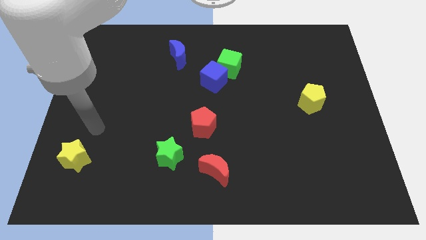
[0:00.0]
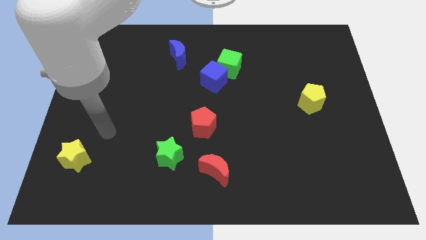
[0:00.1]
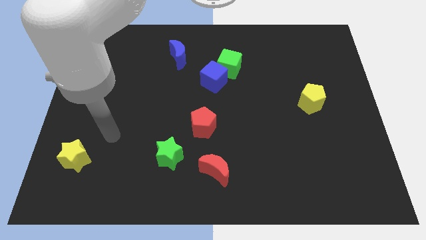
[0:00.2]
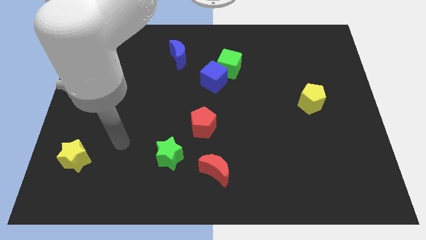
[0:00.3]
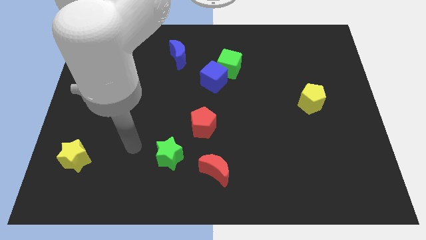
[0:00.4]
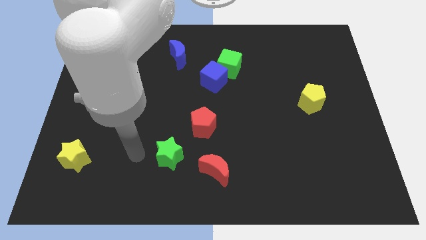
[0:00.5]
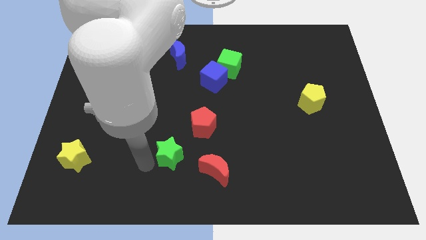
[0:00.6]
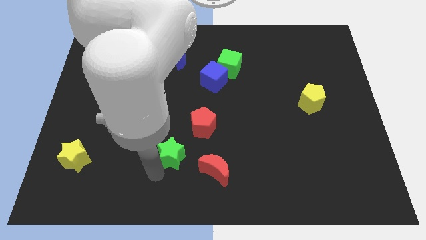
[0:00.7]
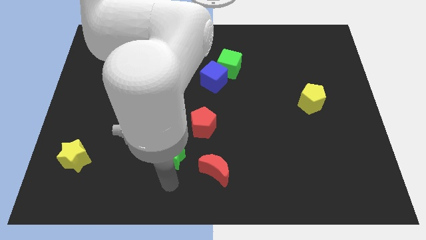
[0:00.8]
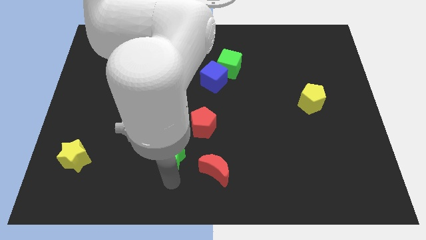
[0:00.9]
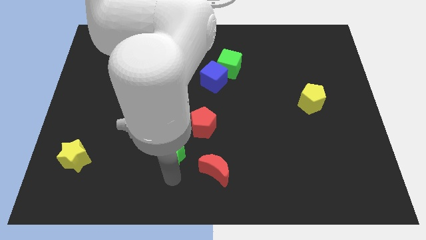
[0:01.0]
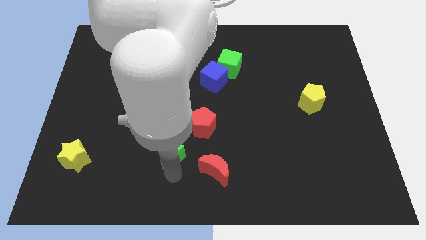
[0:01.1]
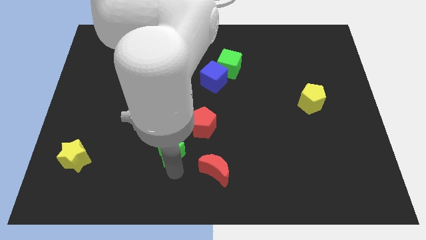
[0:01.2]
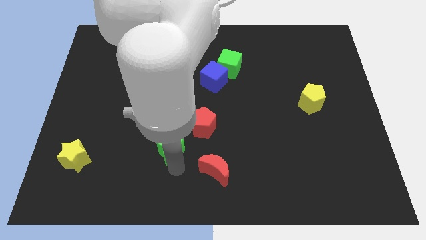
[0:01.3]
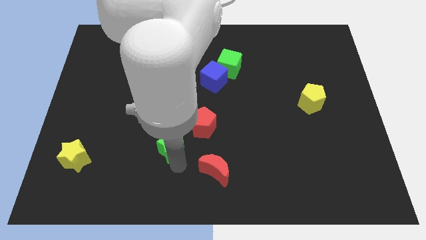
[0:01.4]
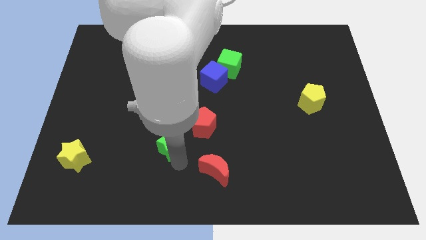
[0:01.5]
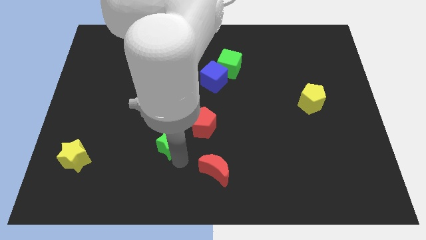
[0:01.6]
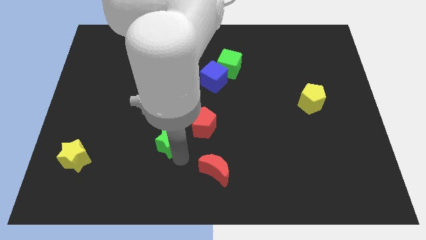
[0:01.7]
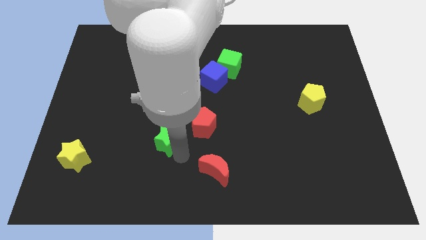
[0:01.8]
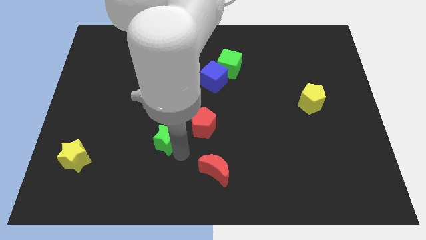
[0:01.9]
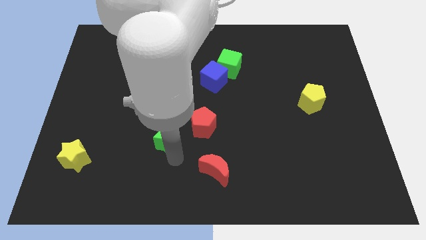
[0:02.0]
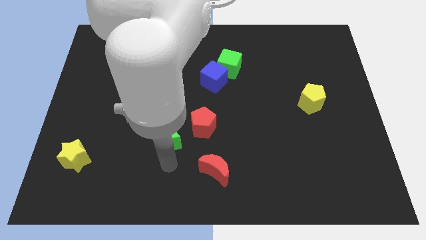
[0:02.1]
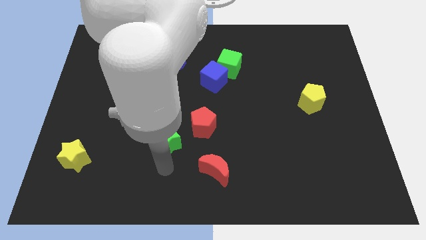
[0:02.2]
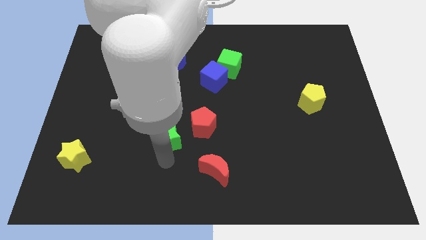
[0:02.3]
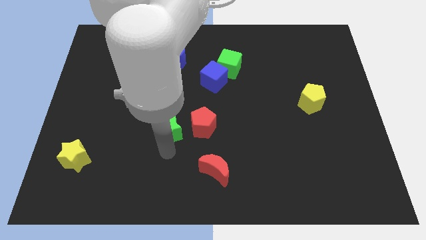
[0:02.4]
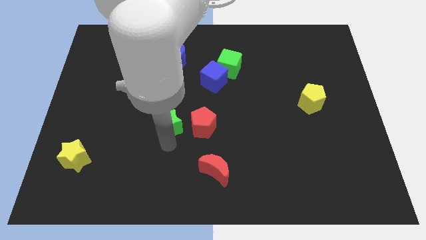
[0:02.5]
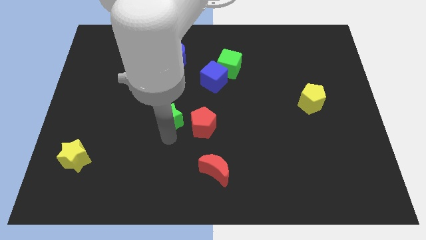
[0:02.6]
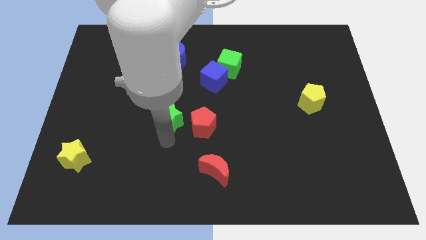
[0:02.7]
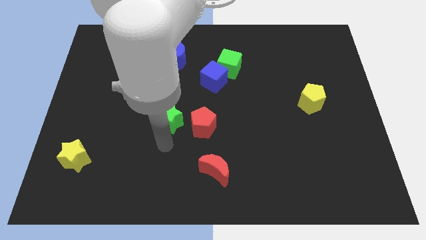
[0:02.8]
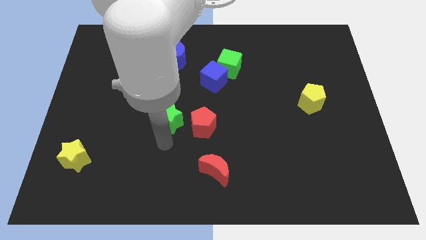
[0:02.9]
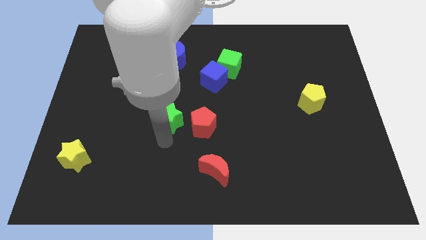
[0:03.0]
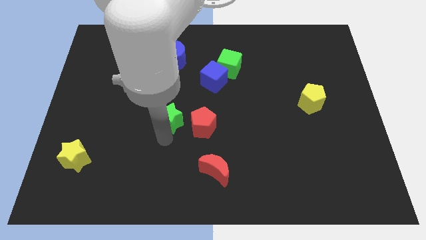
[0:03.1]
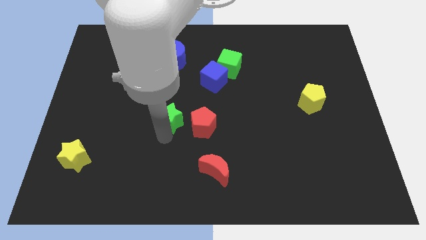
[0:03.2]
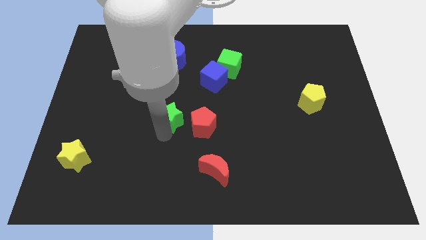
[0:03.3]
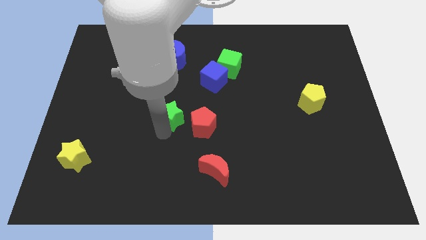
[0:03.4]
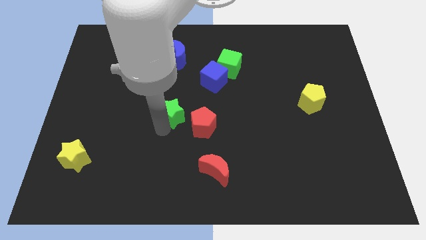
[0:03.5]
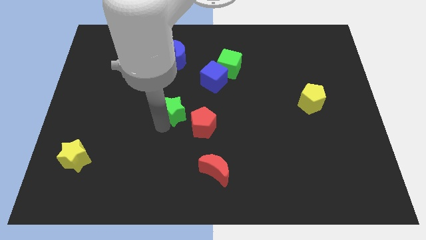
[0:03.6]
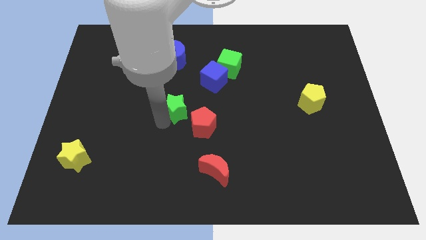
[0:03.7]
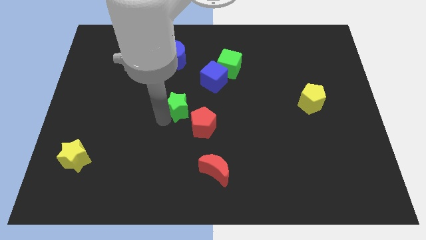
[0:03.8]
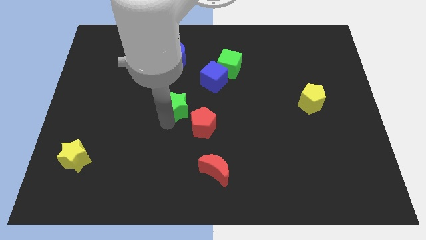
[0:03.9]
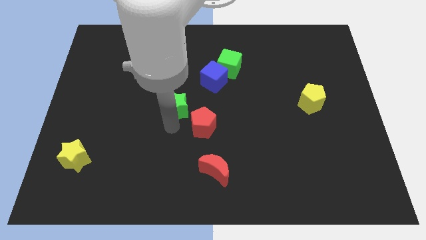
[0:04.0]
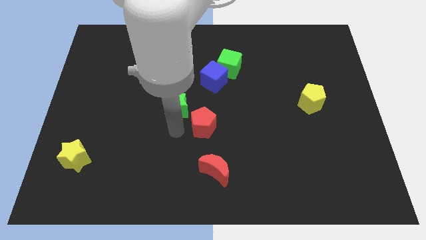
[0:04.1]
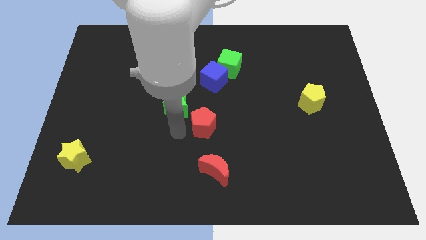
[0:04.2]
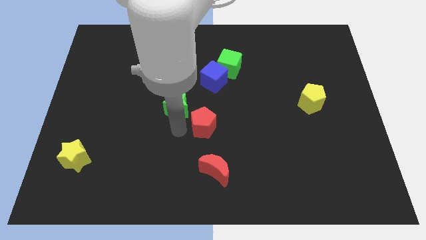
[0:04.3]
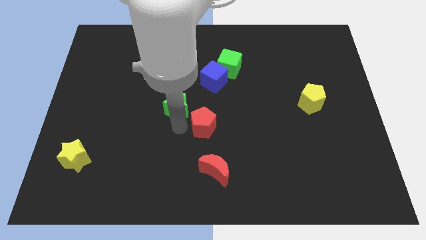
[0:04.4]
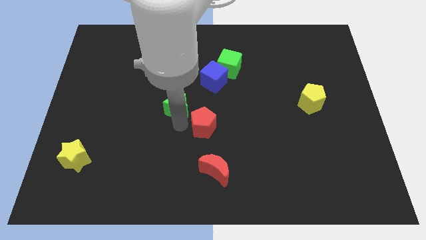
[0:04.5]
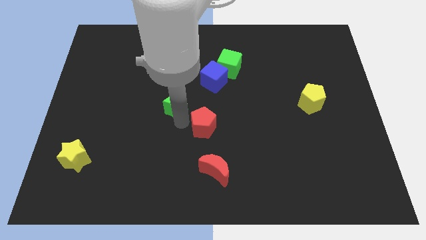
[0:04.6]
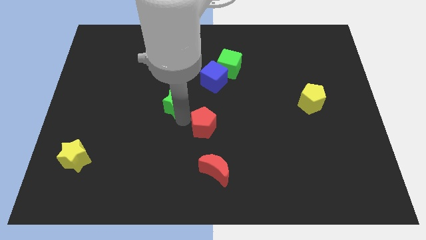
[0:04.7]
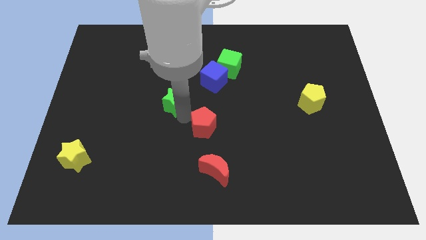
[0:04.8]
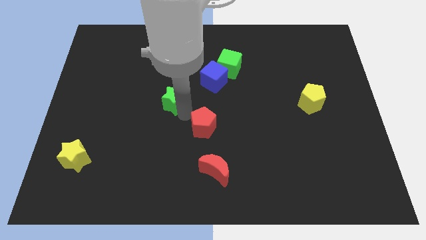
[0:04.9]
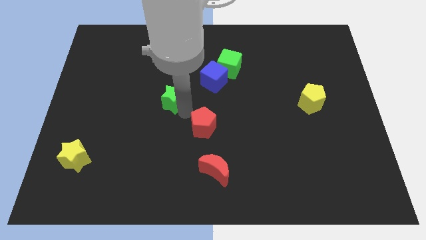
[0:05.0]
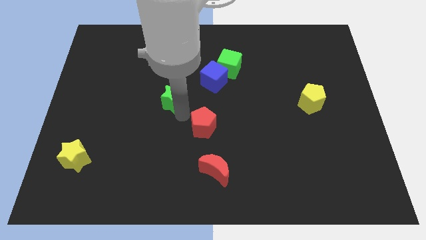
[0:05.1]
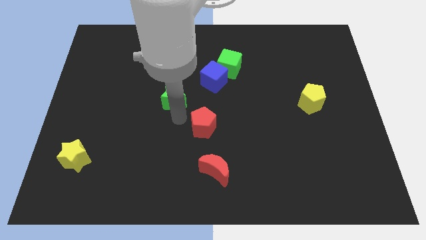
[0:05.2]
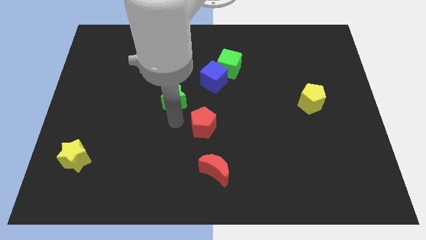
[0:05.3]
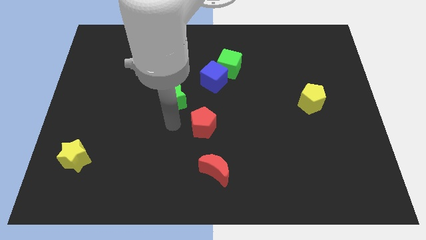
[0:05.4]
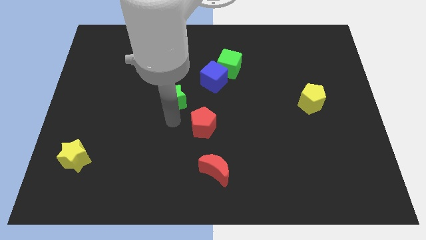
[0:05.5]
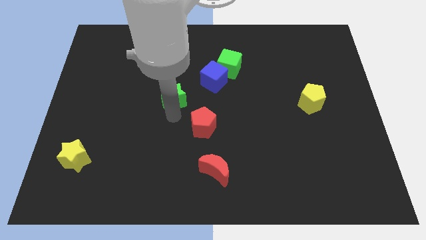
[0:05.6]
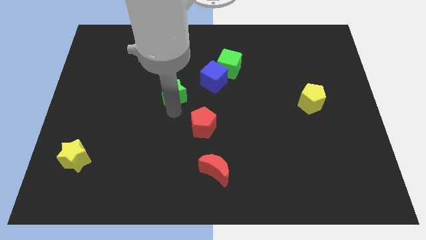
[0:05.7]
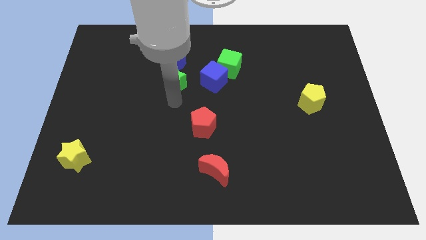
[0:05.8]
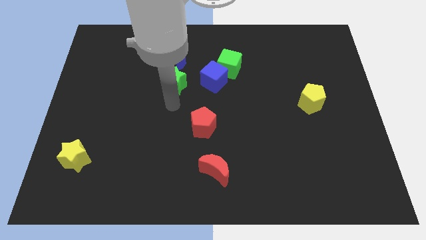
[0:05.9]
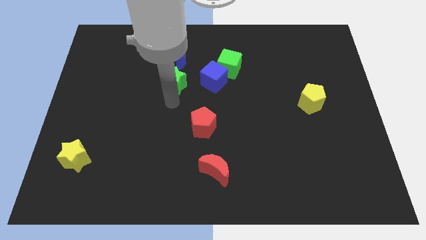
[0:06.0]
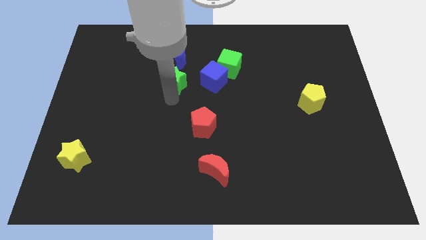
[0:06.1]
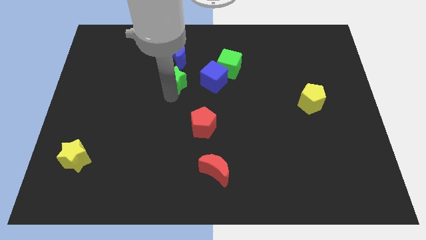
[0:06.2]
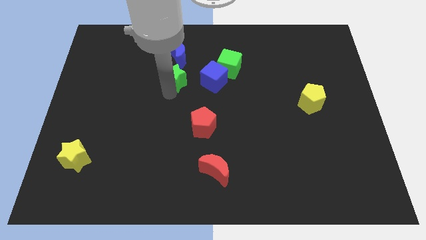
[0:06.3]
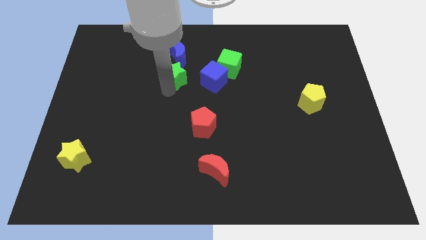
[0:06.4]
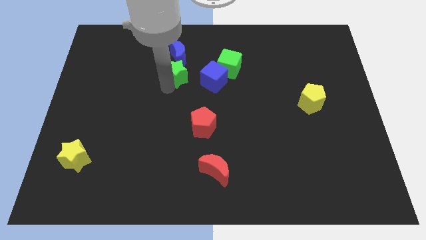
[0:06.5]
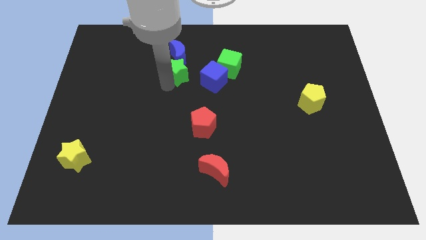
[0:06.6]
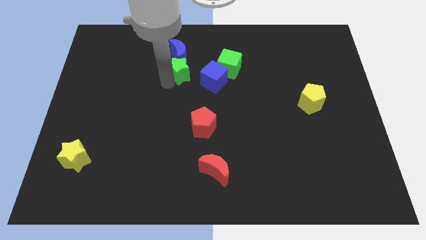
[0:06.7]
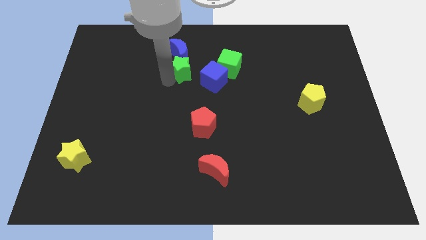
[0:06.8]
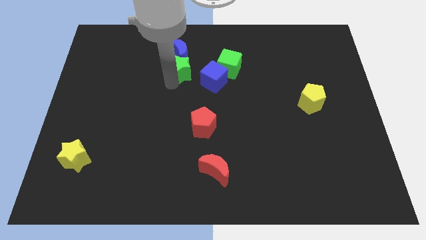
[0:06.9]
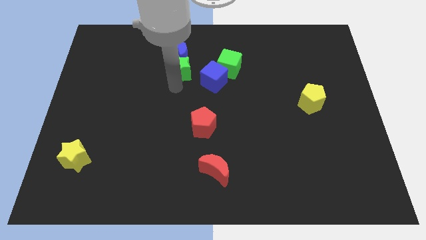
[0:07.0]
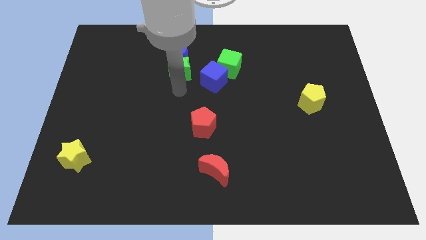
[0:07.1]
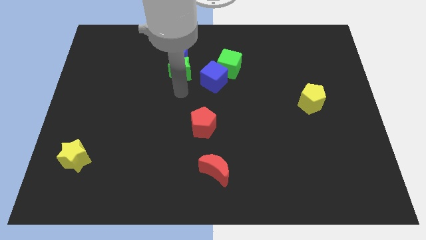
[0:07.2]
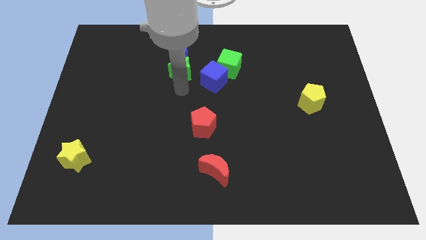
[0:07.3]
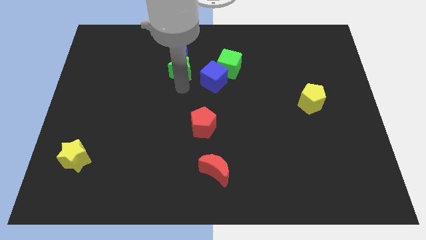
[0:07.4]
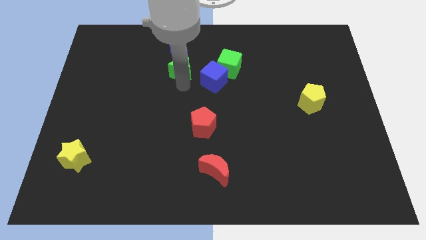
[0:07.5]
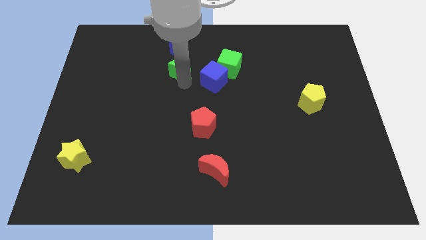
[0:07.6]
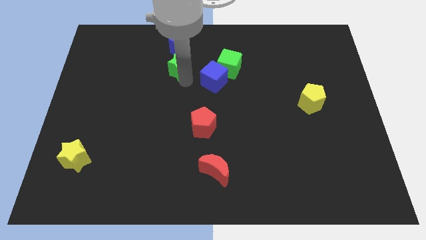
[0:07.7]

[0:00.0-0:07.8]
slide the green star next to the blue moon
